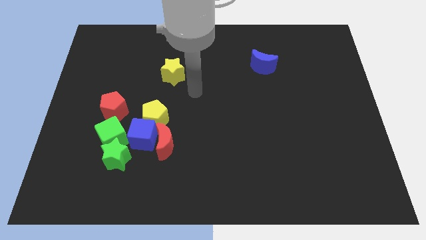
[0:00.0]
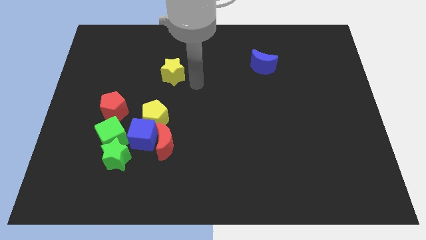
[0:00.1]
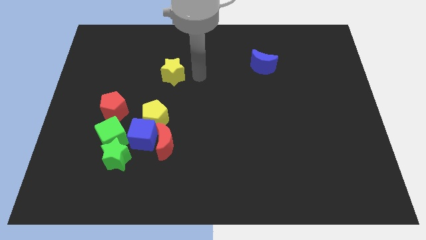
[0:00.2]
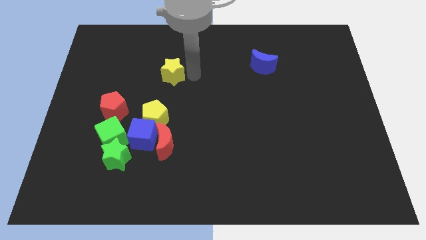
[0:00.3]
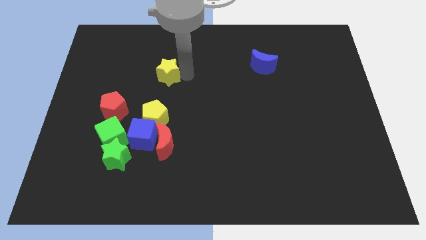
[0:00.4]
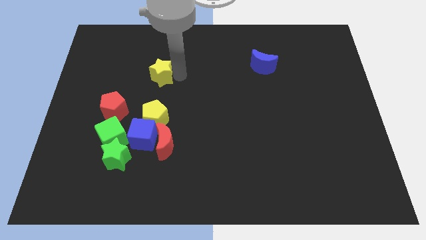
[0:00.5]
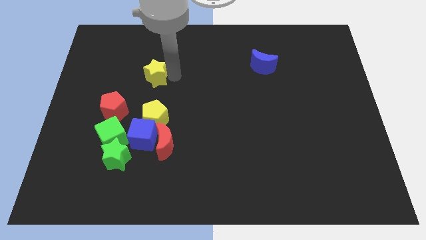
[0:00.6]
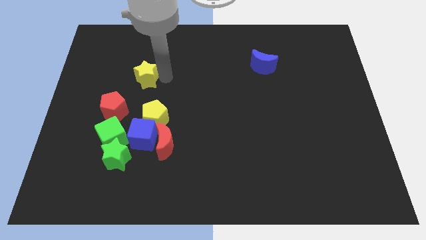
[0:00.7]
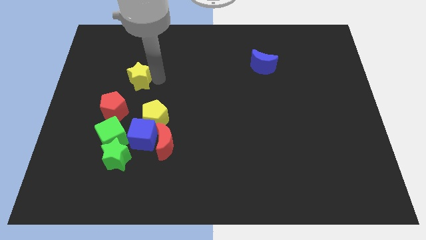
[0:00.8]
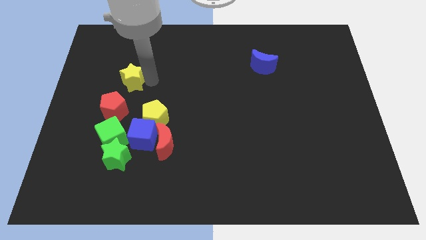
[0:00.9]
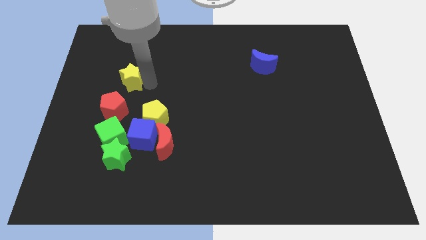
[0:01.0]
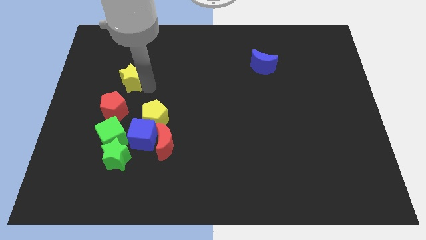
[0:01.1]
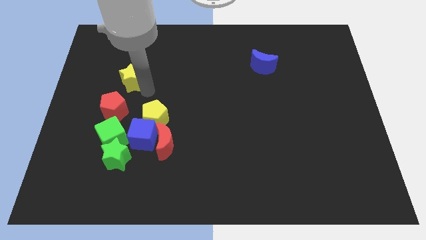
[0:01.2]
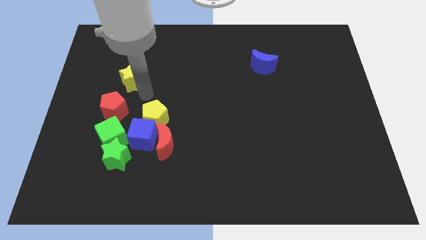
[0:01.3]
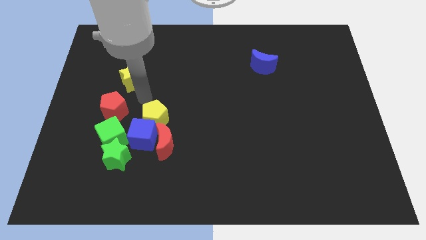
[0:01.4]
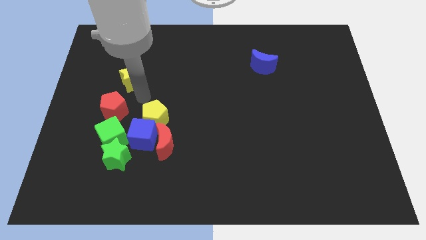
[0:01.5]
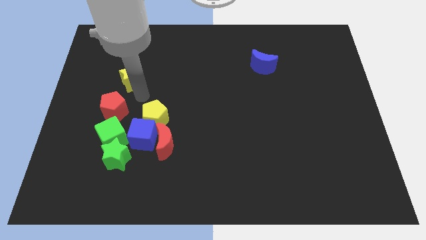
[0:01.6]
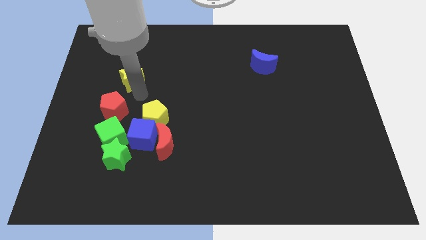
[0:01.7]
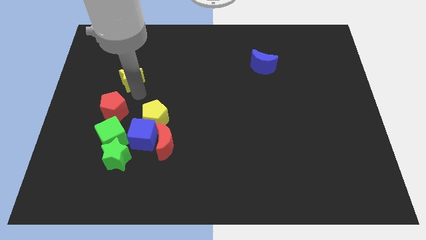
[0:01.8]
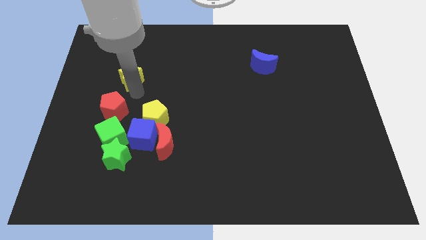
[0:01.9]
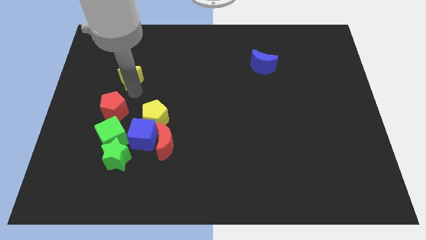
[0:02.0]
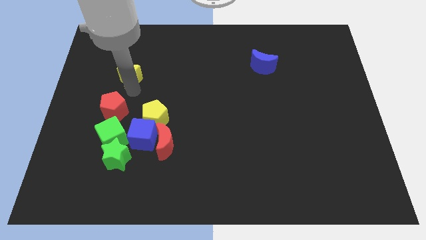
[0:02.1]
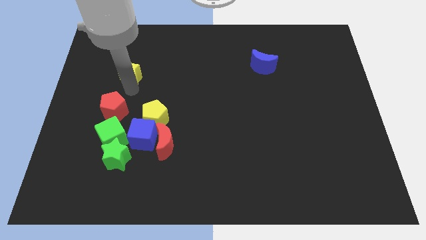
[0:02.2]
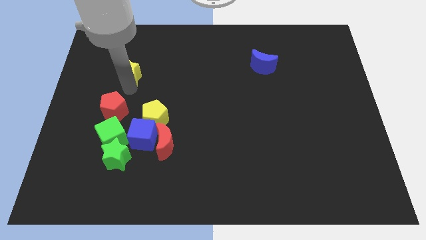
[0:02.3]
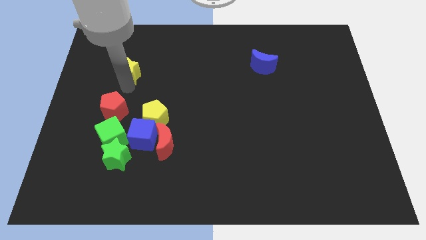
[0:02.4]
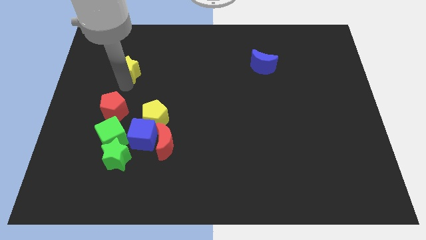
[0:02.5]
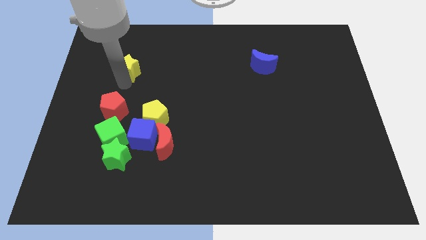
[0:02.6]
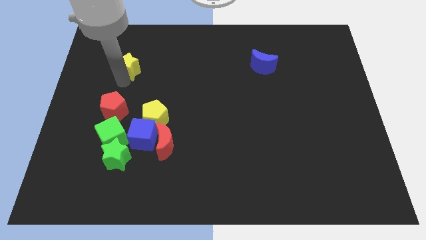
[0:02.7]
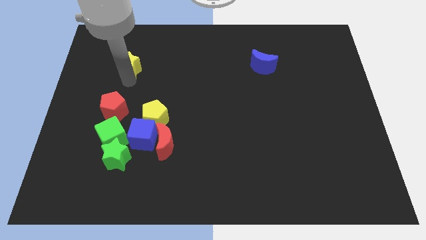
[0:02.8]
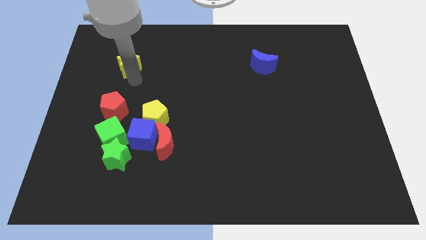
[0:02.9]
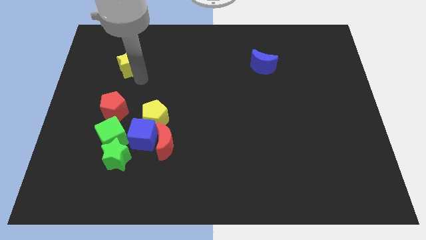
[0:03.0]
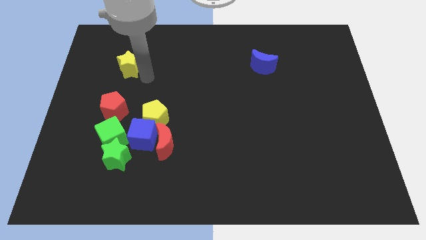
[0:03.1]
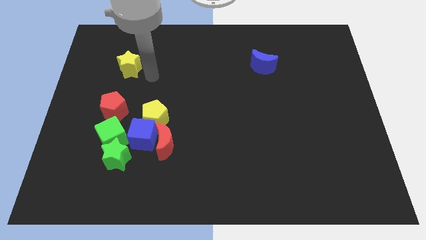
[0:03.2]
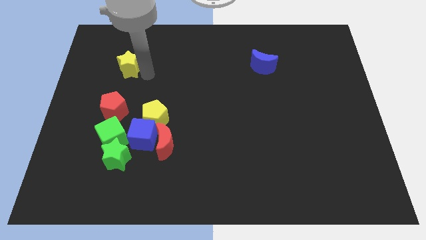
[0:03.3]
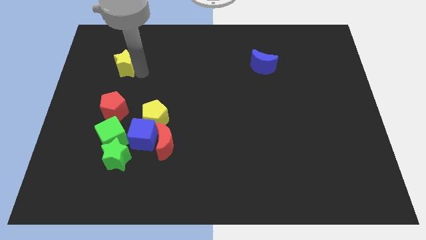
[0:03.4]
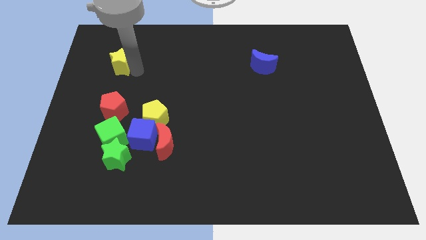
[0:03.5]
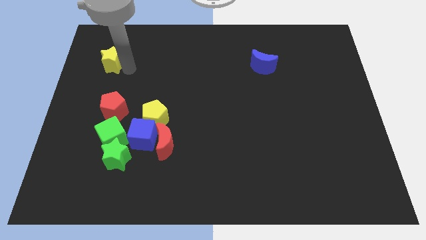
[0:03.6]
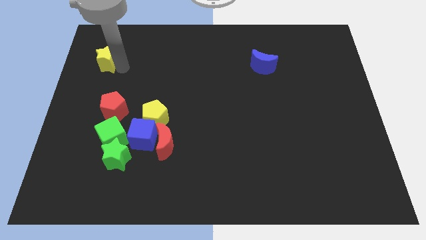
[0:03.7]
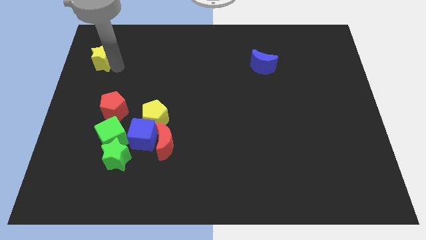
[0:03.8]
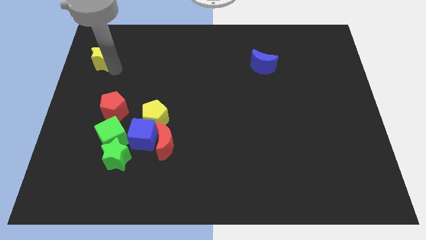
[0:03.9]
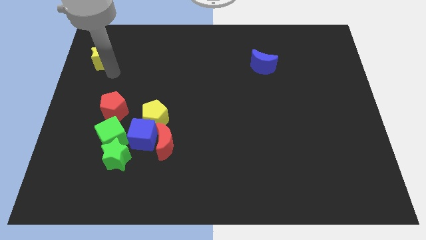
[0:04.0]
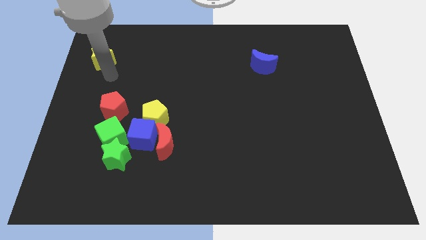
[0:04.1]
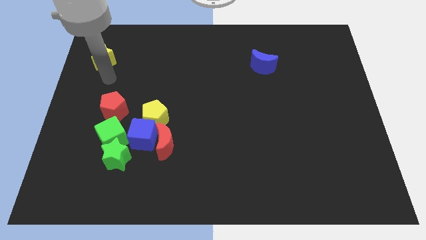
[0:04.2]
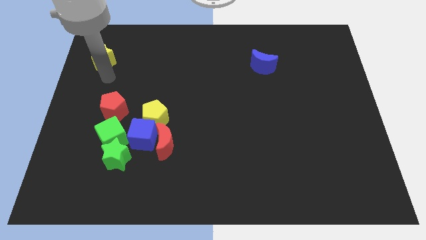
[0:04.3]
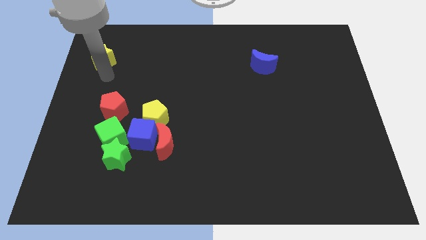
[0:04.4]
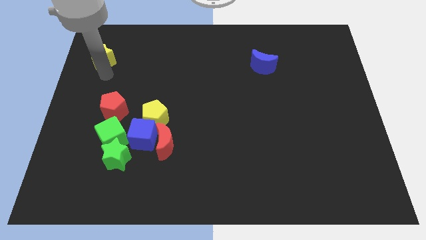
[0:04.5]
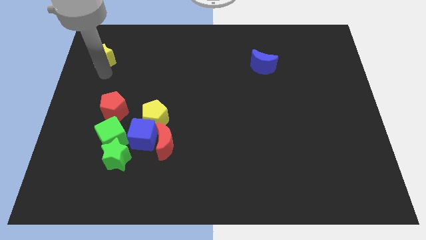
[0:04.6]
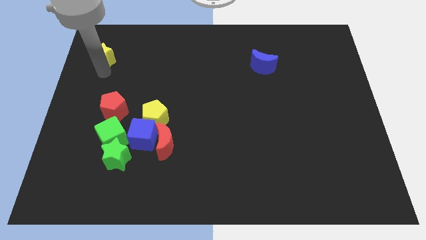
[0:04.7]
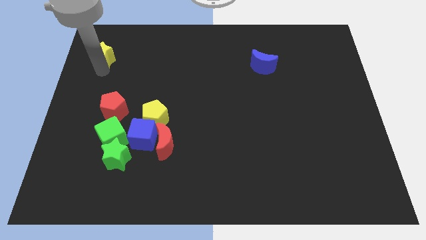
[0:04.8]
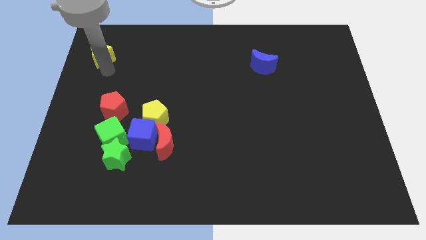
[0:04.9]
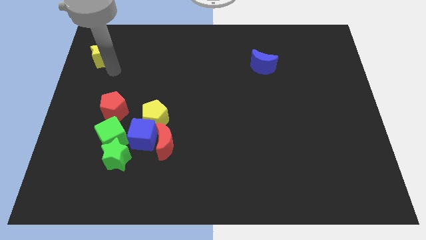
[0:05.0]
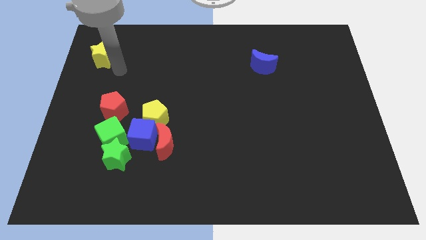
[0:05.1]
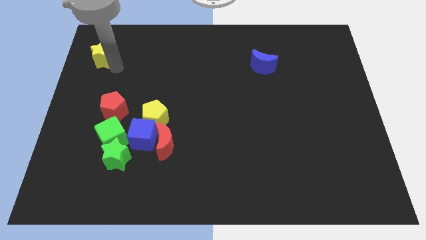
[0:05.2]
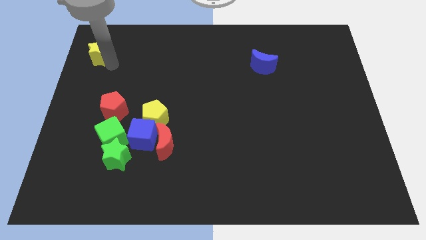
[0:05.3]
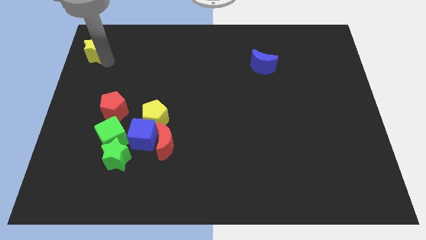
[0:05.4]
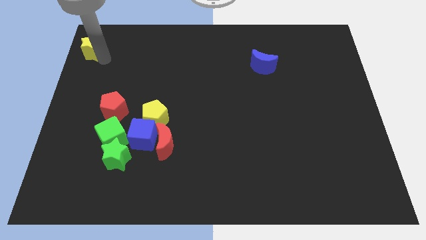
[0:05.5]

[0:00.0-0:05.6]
push the yellow star to the top left corner
